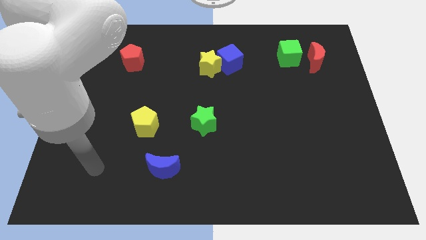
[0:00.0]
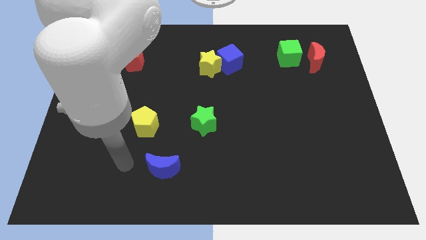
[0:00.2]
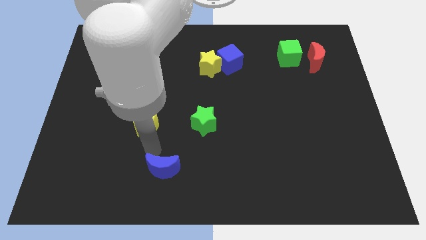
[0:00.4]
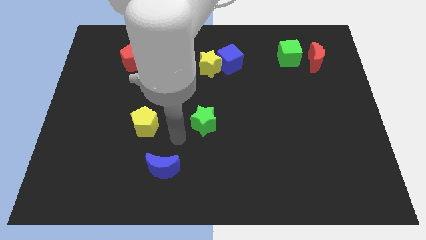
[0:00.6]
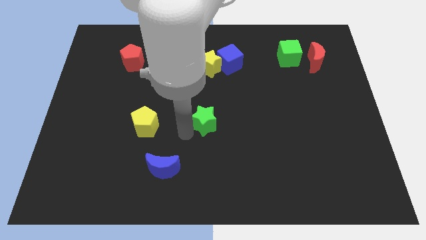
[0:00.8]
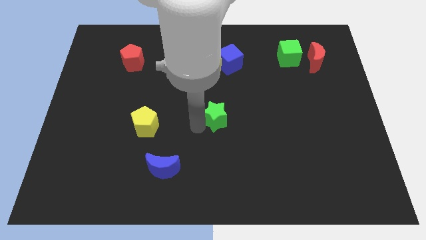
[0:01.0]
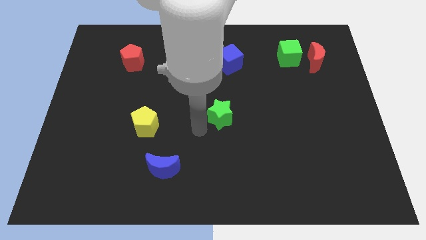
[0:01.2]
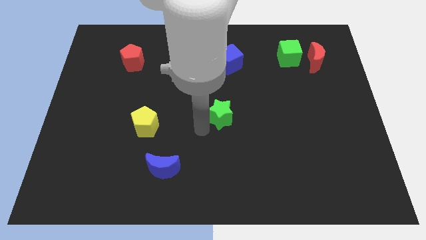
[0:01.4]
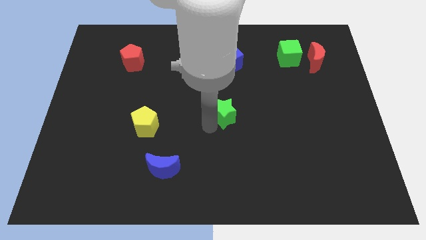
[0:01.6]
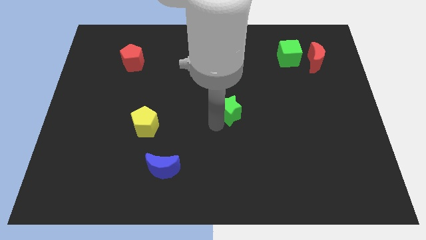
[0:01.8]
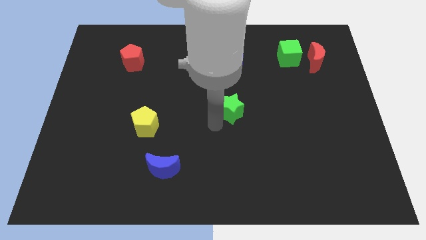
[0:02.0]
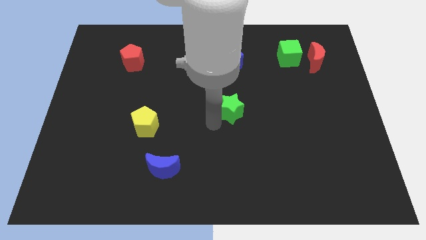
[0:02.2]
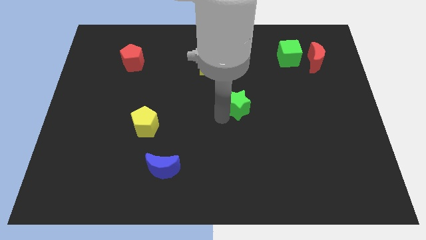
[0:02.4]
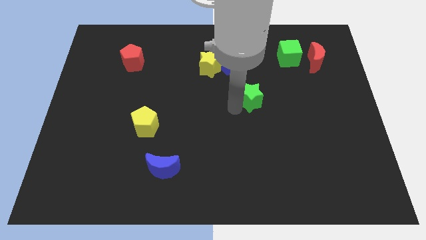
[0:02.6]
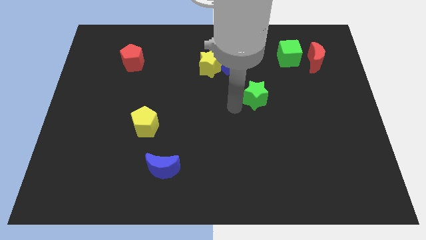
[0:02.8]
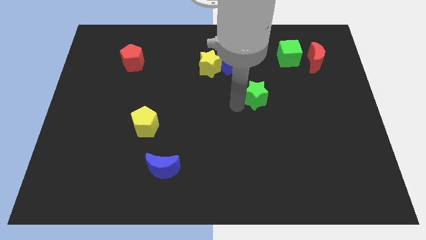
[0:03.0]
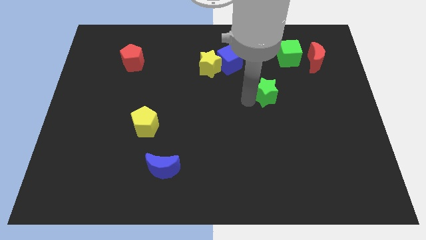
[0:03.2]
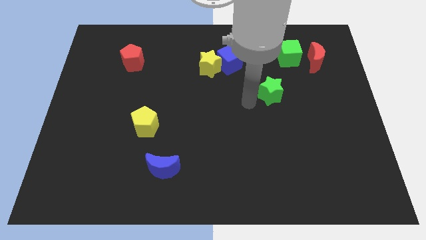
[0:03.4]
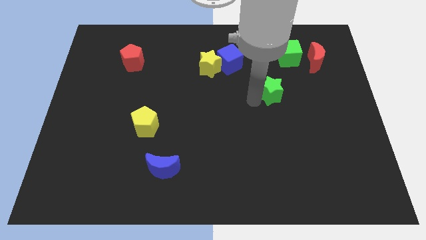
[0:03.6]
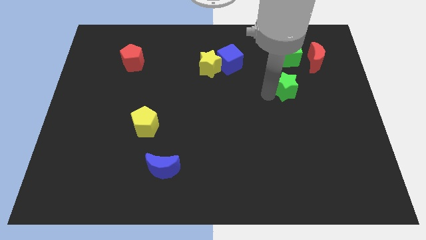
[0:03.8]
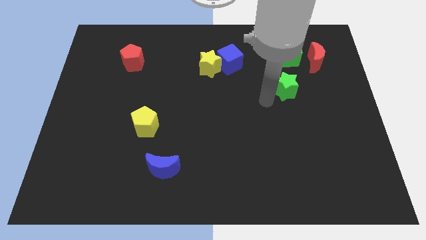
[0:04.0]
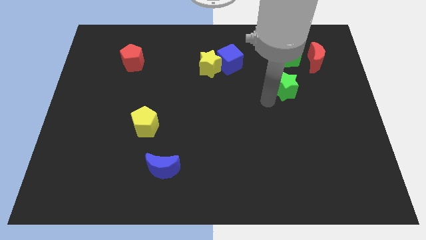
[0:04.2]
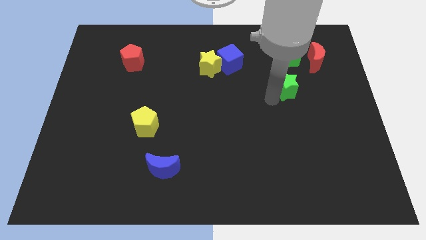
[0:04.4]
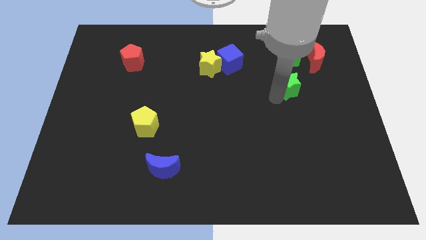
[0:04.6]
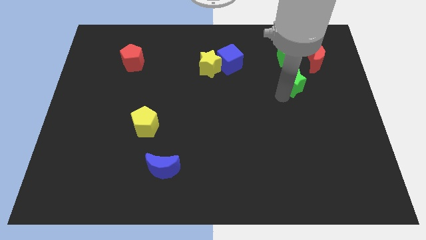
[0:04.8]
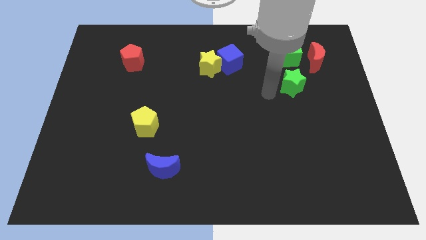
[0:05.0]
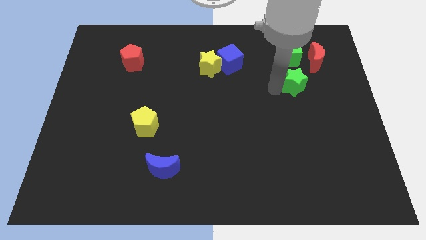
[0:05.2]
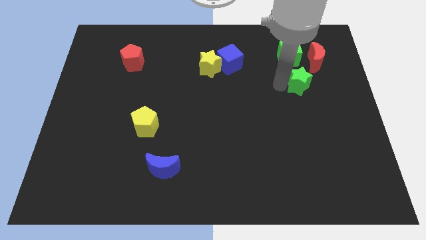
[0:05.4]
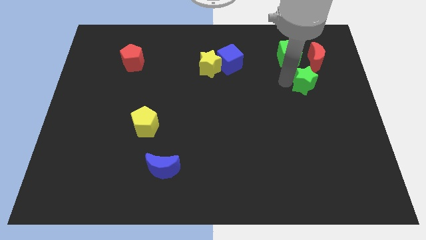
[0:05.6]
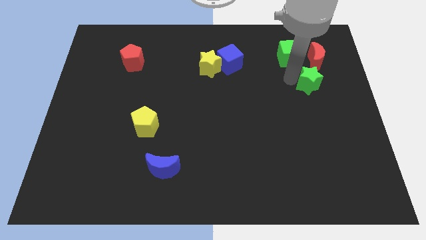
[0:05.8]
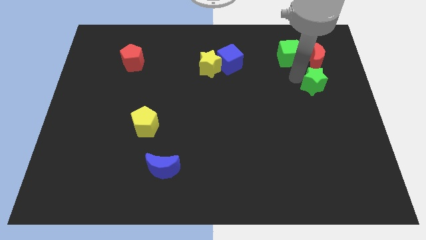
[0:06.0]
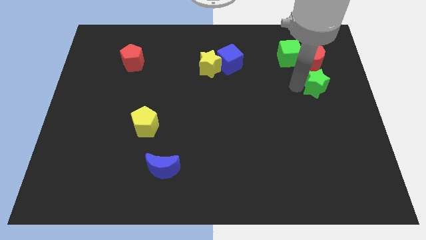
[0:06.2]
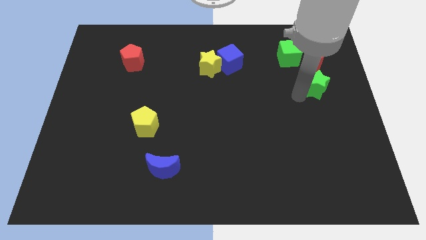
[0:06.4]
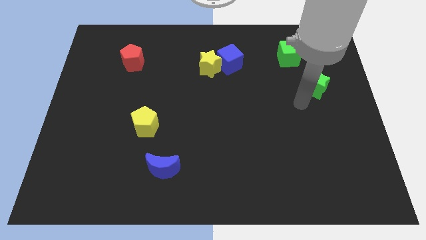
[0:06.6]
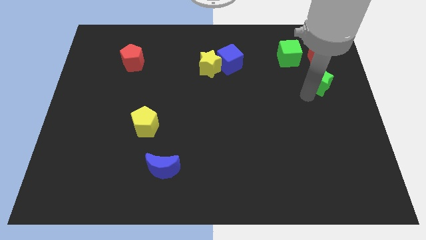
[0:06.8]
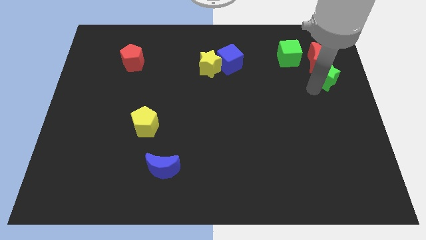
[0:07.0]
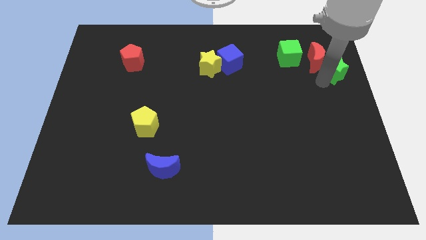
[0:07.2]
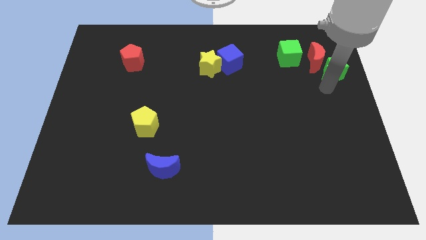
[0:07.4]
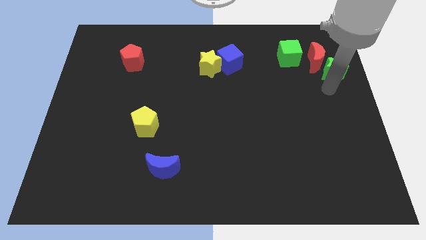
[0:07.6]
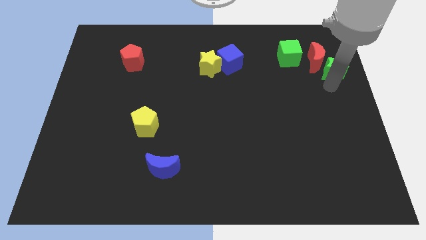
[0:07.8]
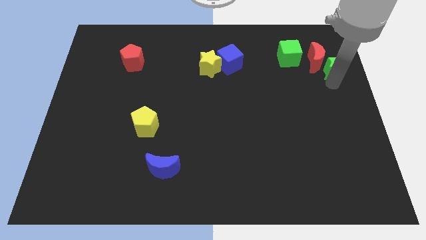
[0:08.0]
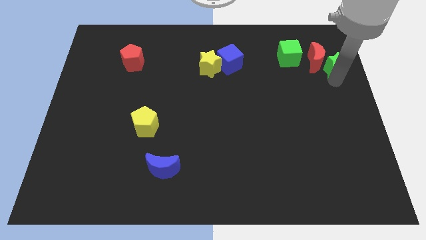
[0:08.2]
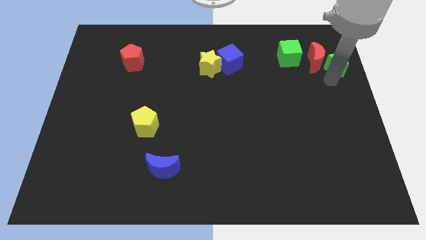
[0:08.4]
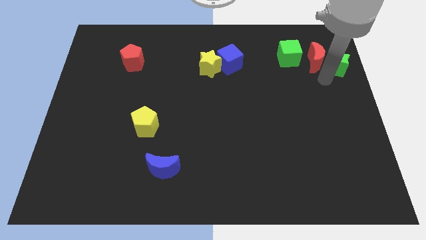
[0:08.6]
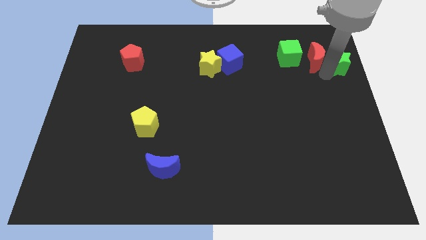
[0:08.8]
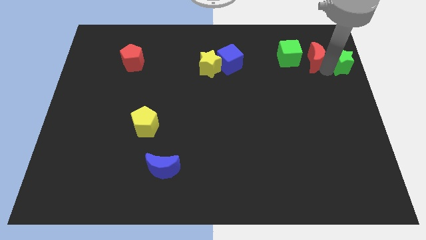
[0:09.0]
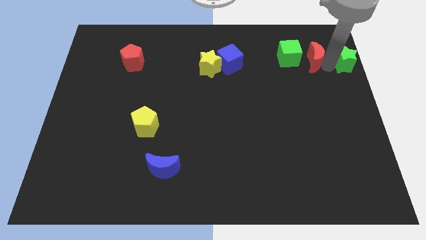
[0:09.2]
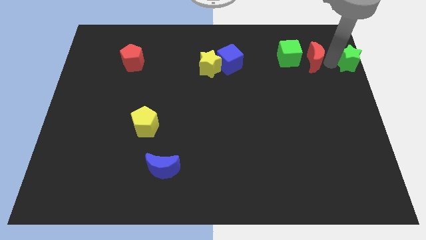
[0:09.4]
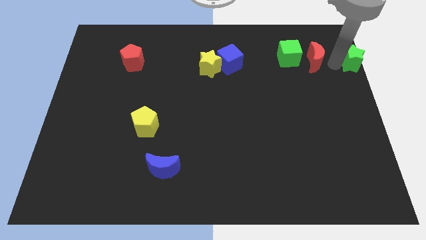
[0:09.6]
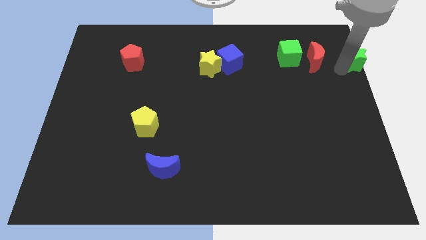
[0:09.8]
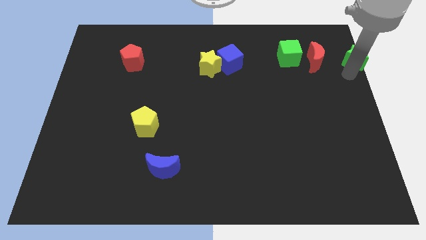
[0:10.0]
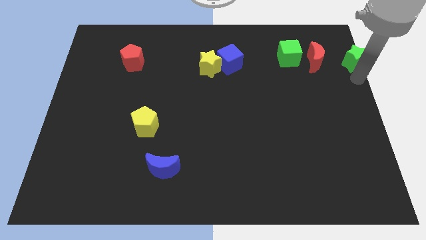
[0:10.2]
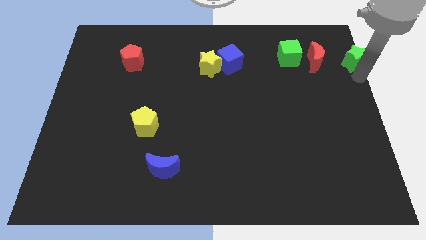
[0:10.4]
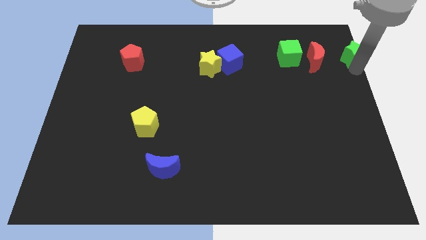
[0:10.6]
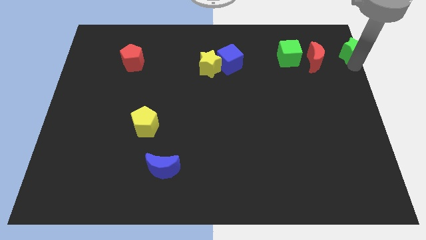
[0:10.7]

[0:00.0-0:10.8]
slide the green star to the top right of the board

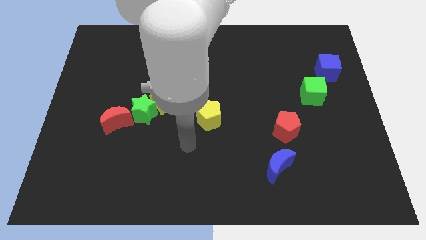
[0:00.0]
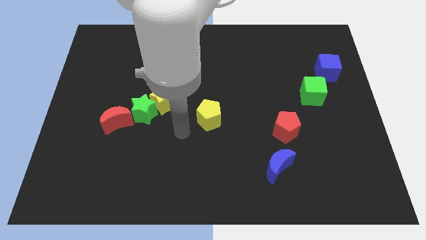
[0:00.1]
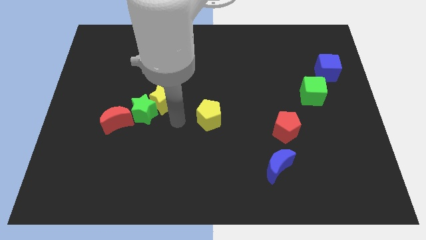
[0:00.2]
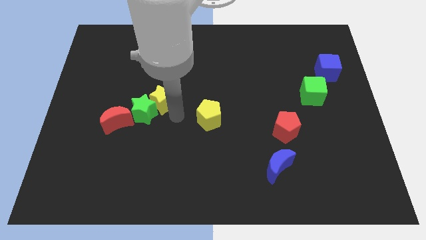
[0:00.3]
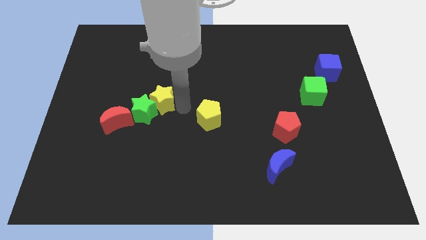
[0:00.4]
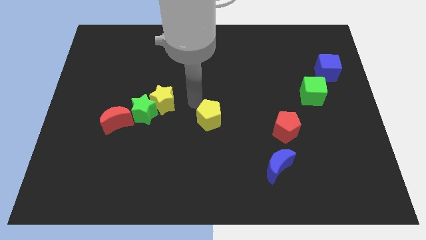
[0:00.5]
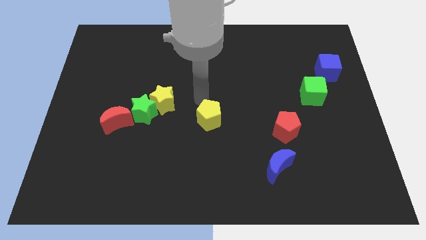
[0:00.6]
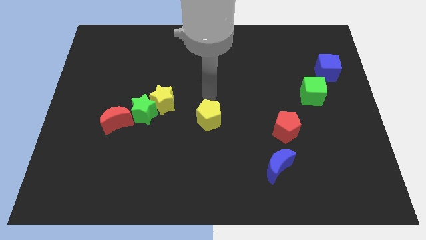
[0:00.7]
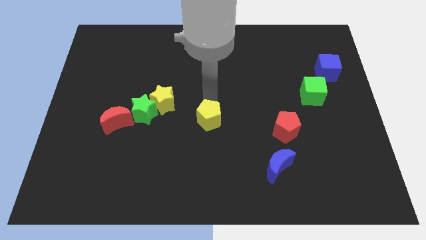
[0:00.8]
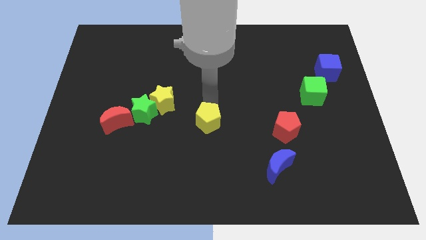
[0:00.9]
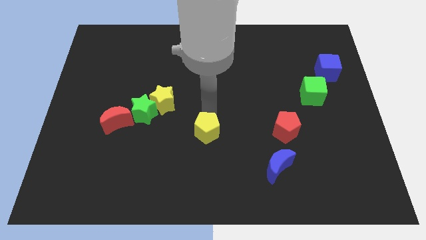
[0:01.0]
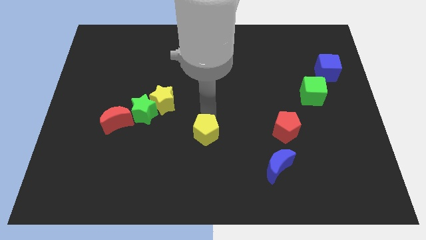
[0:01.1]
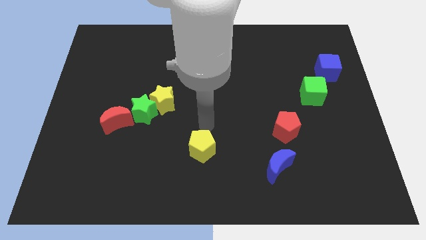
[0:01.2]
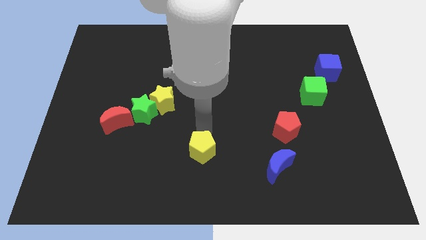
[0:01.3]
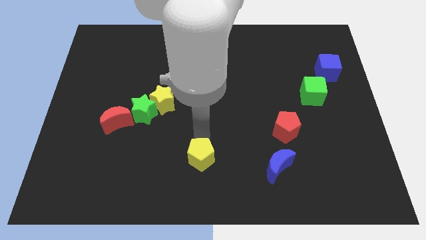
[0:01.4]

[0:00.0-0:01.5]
move the yellow pentagon to the bottom

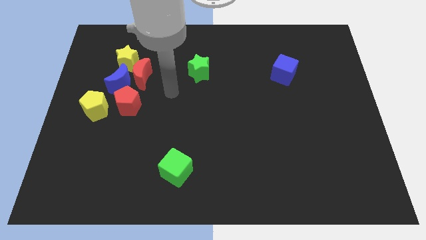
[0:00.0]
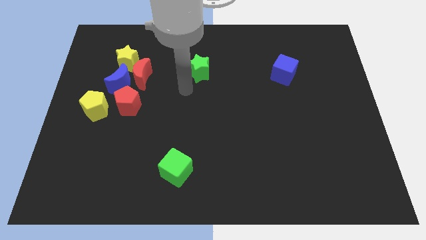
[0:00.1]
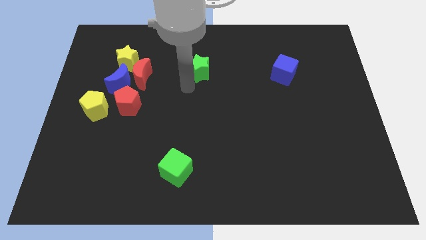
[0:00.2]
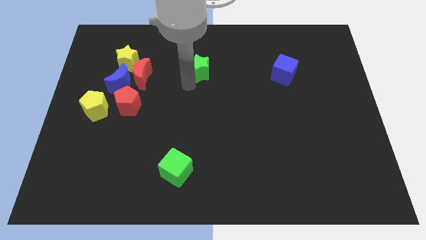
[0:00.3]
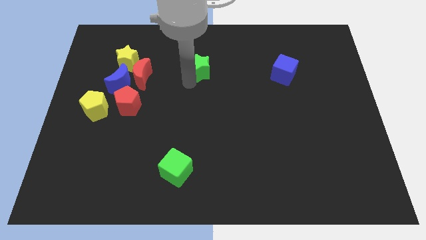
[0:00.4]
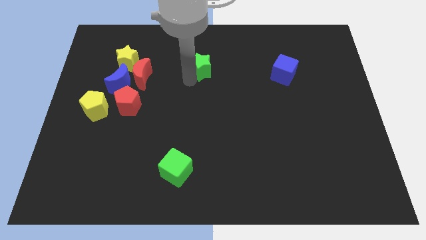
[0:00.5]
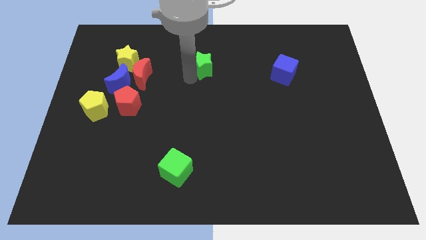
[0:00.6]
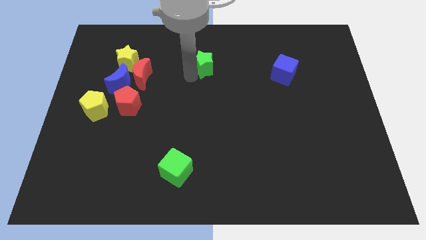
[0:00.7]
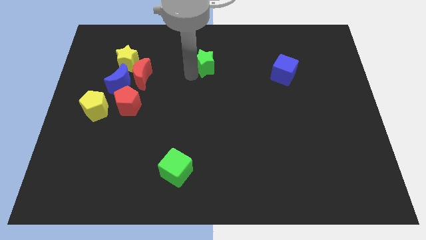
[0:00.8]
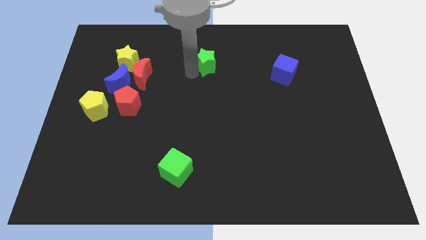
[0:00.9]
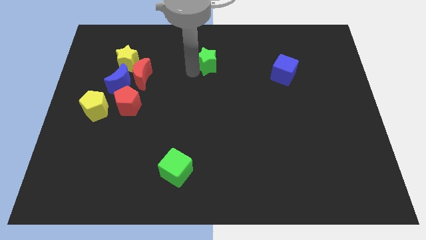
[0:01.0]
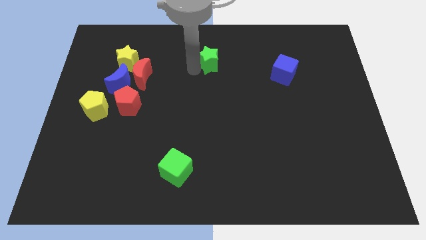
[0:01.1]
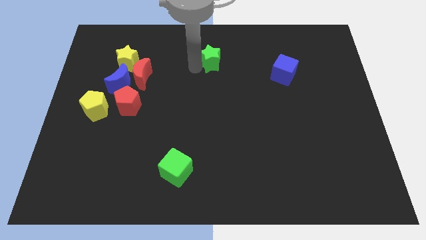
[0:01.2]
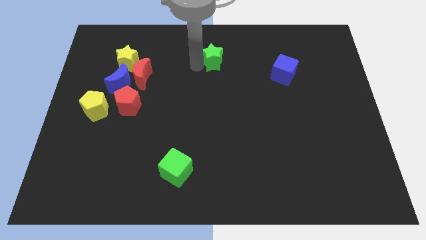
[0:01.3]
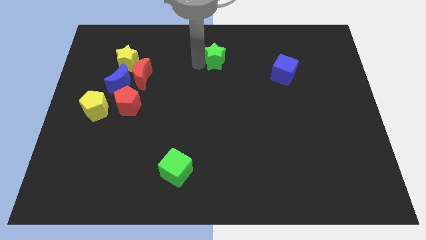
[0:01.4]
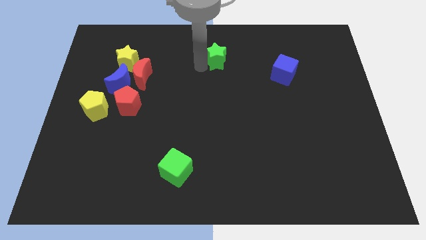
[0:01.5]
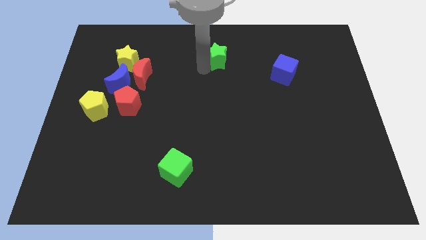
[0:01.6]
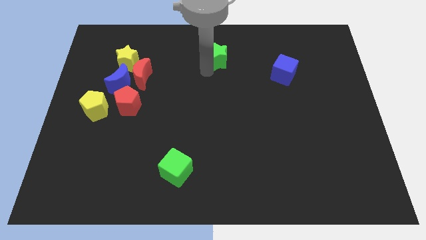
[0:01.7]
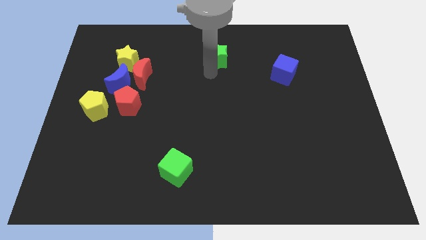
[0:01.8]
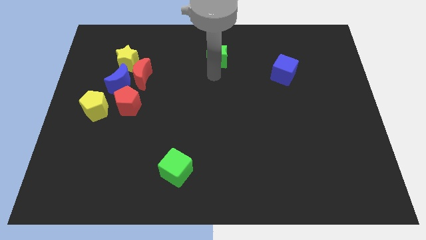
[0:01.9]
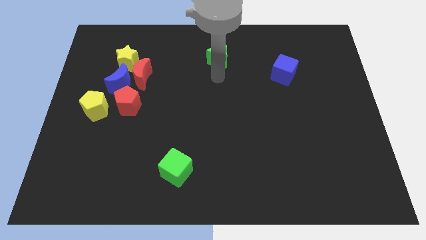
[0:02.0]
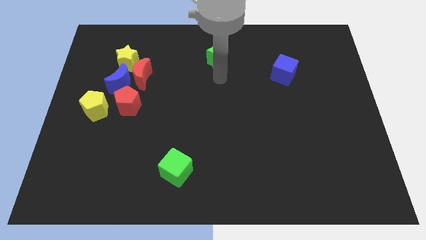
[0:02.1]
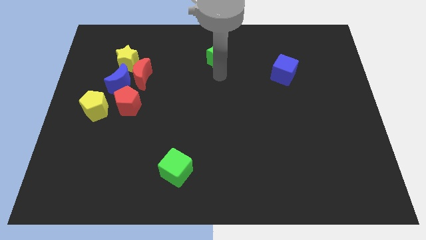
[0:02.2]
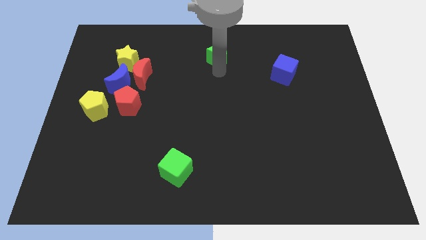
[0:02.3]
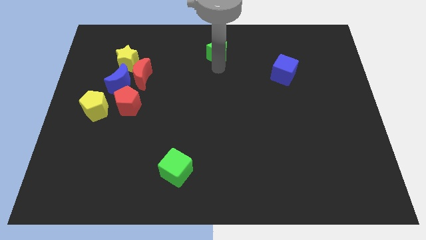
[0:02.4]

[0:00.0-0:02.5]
push the green star to the towards your base
